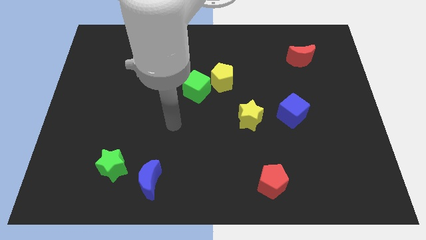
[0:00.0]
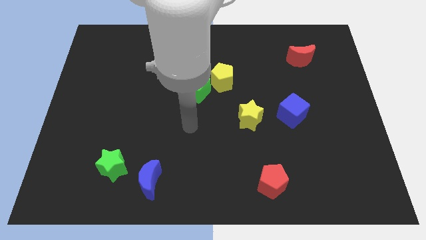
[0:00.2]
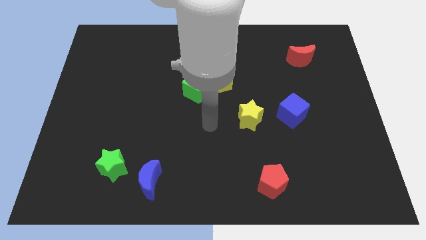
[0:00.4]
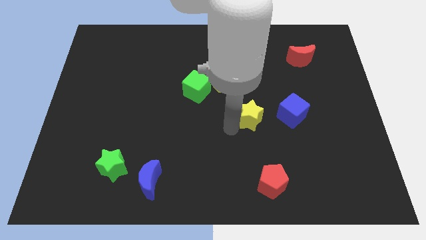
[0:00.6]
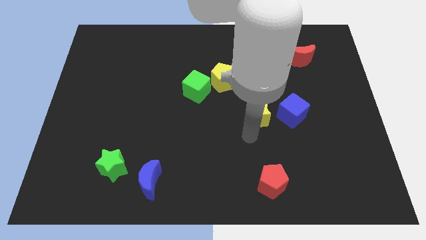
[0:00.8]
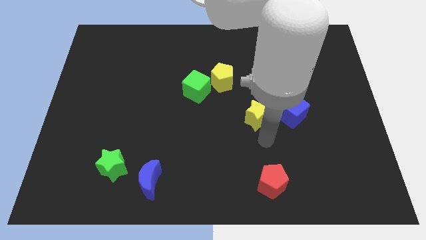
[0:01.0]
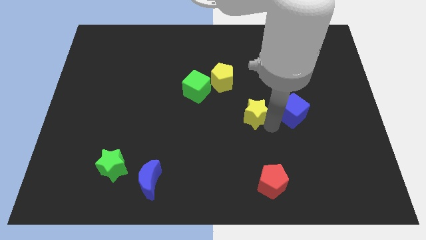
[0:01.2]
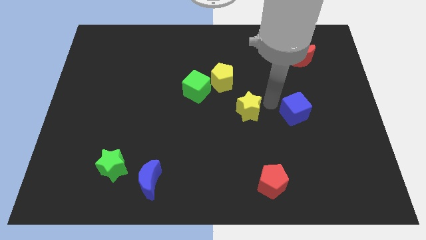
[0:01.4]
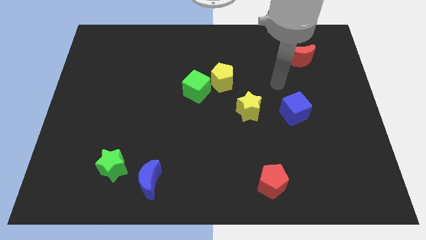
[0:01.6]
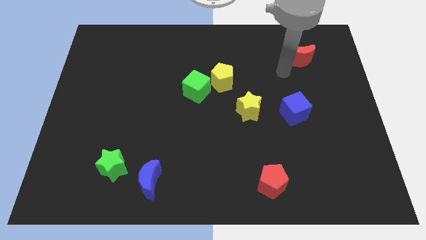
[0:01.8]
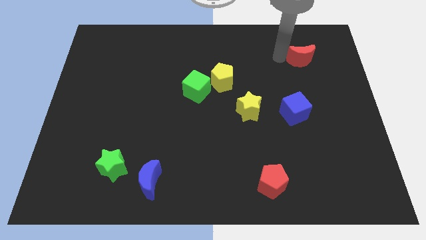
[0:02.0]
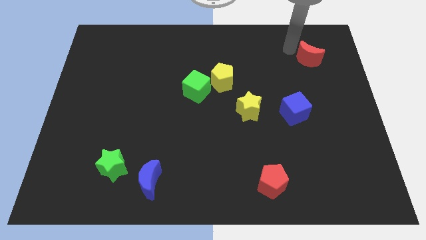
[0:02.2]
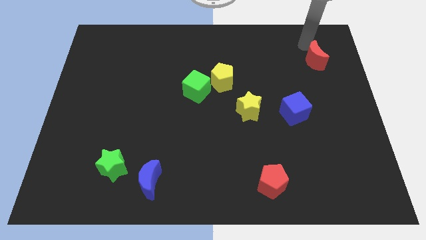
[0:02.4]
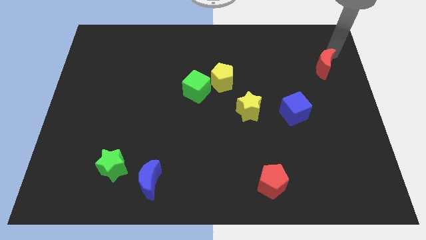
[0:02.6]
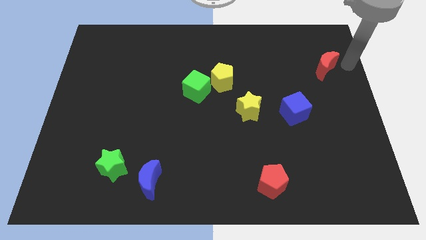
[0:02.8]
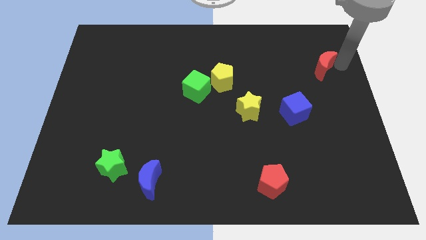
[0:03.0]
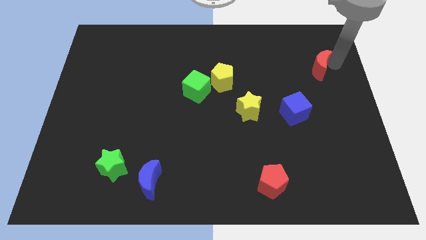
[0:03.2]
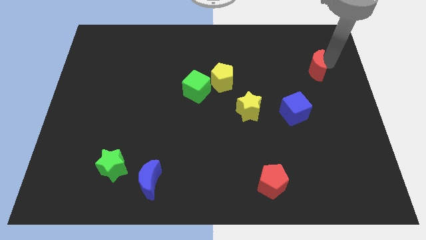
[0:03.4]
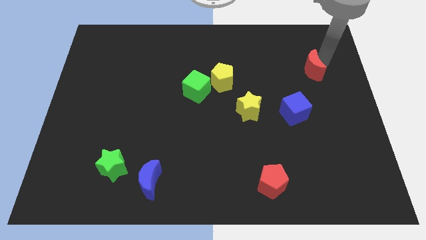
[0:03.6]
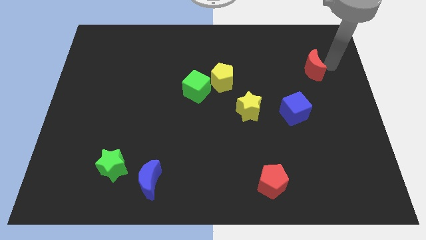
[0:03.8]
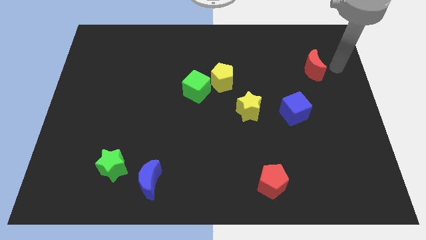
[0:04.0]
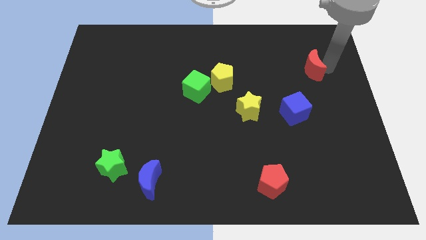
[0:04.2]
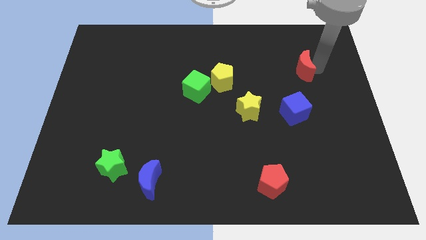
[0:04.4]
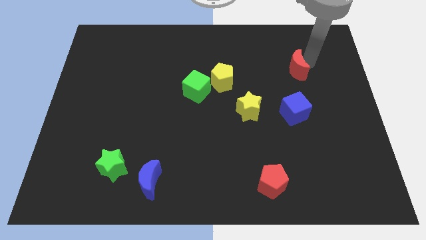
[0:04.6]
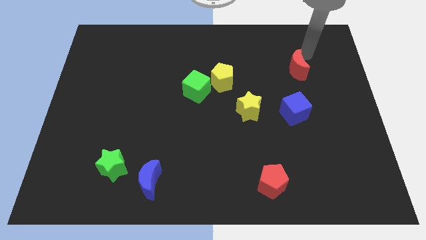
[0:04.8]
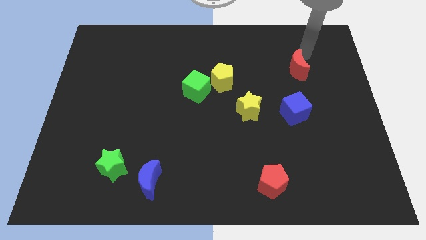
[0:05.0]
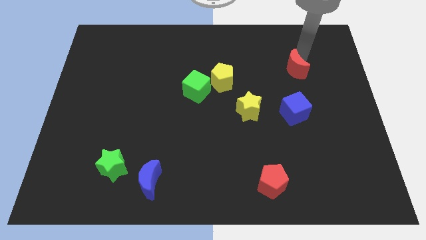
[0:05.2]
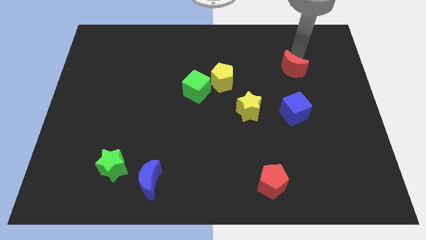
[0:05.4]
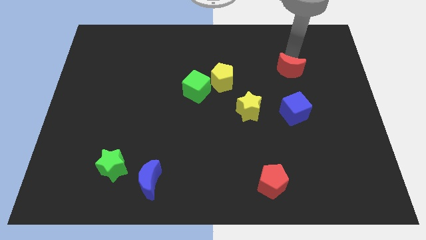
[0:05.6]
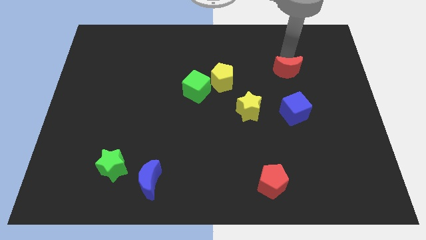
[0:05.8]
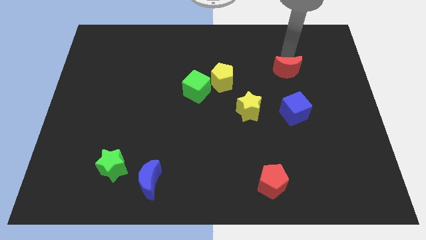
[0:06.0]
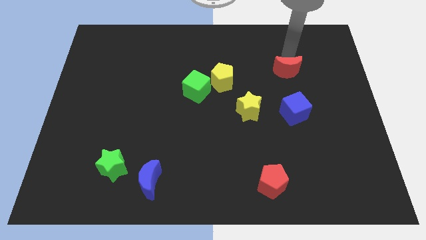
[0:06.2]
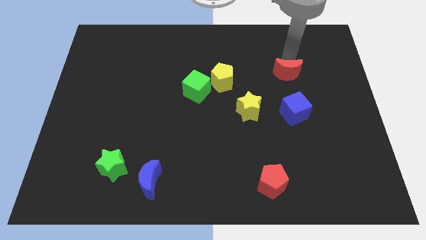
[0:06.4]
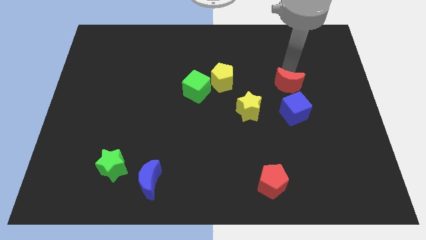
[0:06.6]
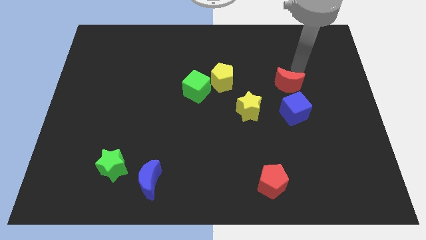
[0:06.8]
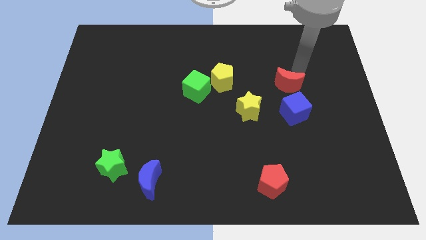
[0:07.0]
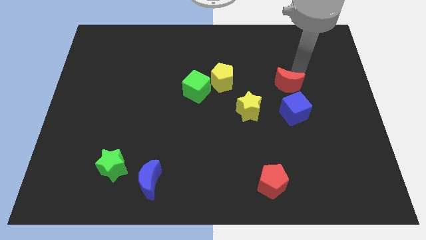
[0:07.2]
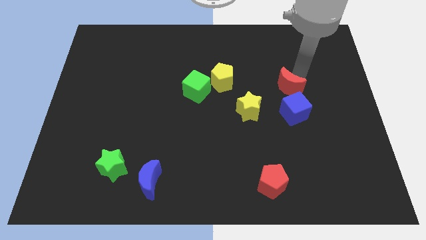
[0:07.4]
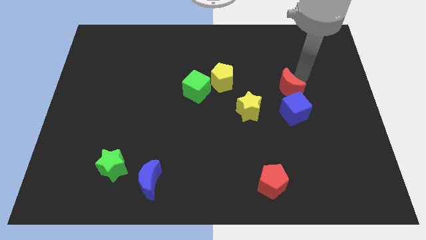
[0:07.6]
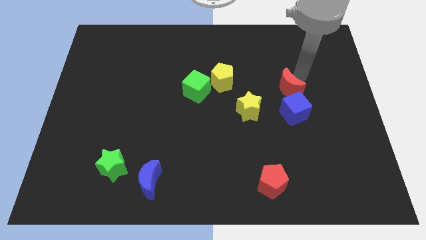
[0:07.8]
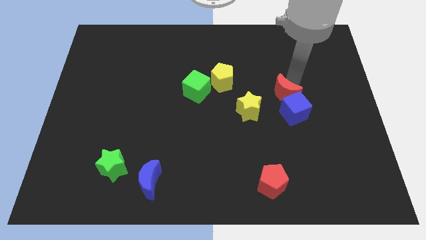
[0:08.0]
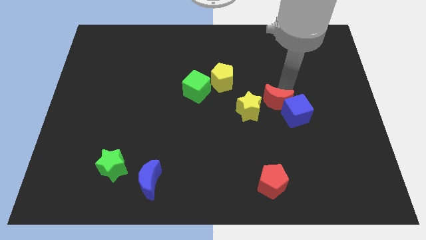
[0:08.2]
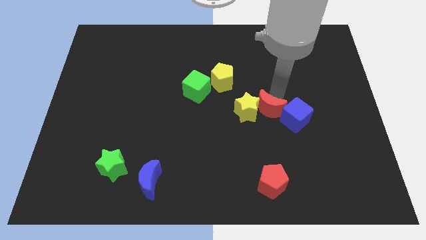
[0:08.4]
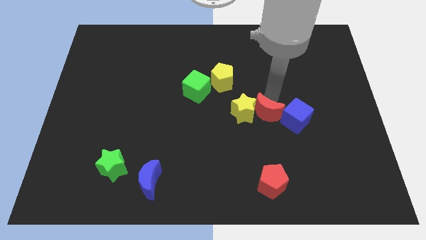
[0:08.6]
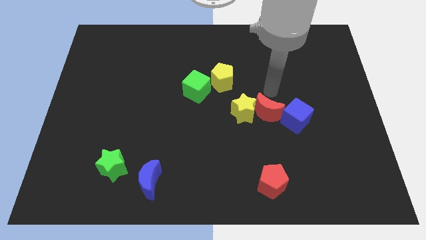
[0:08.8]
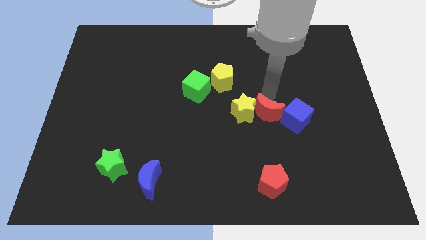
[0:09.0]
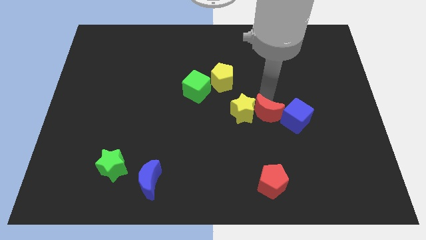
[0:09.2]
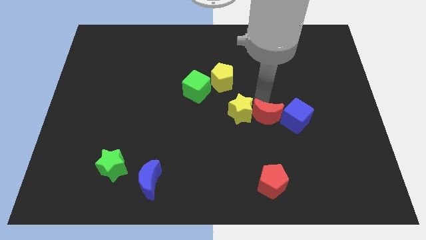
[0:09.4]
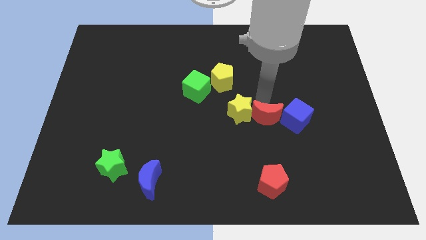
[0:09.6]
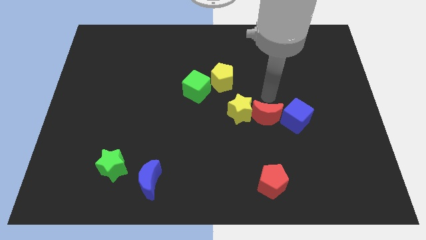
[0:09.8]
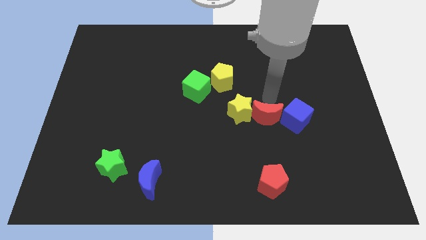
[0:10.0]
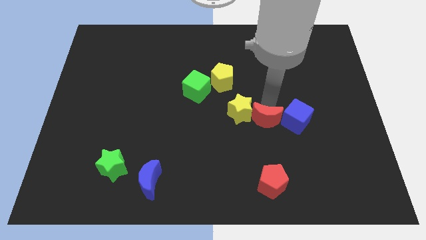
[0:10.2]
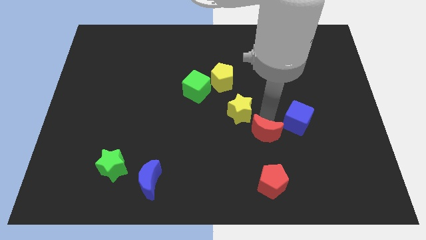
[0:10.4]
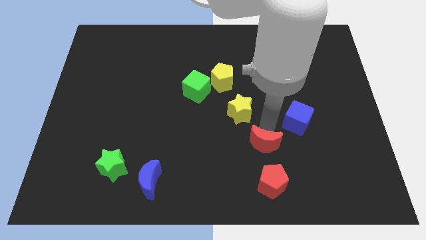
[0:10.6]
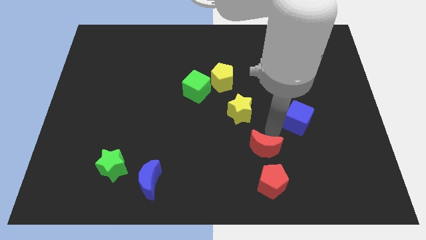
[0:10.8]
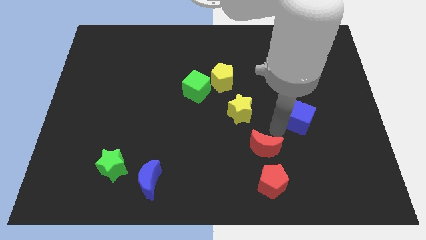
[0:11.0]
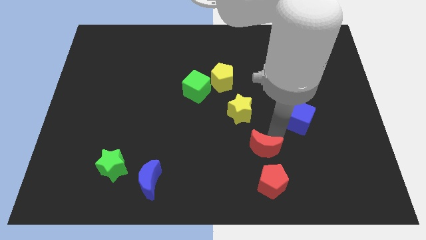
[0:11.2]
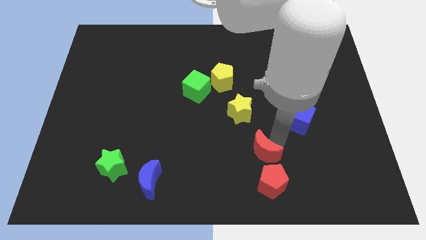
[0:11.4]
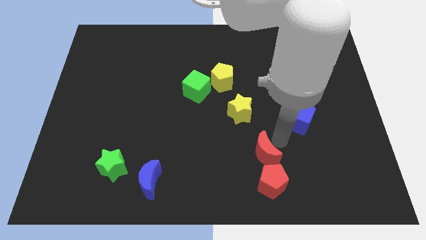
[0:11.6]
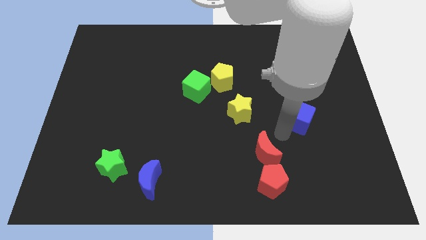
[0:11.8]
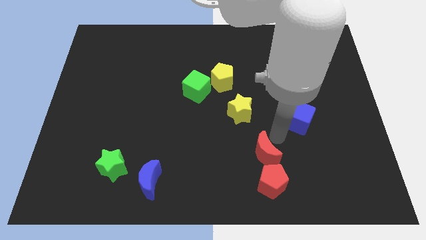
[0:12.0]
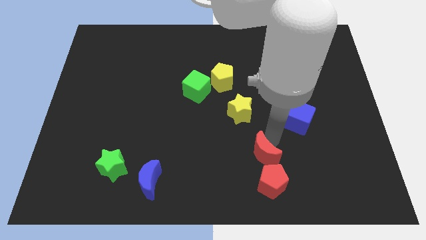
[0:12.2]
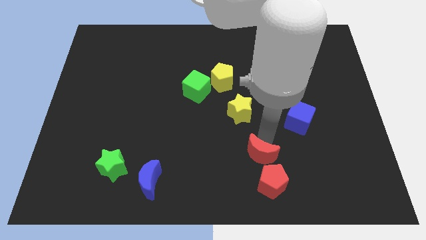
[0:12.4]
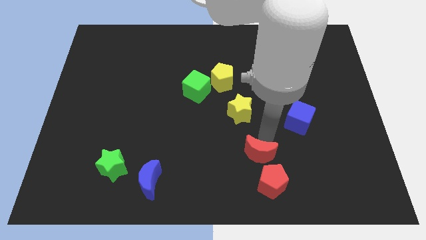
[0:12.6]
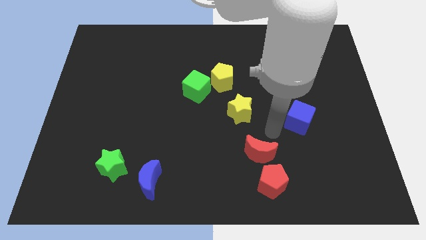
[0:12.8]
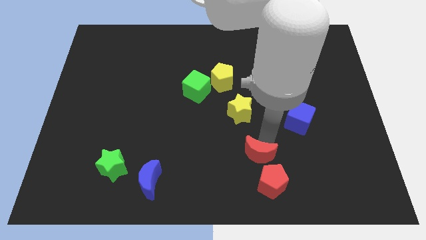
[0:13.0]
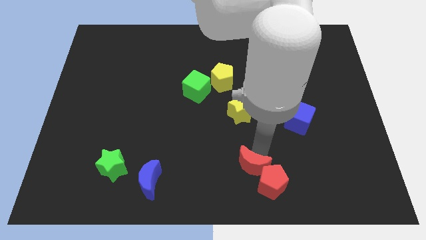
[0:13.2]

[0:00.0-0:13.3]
put the red moon to the bottom side

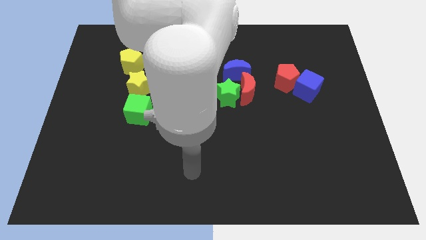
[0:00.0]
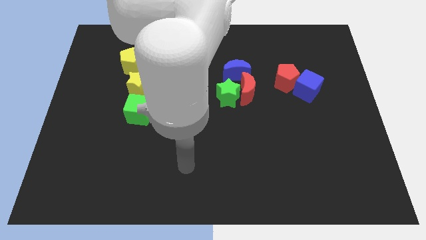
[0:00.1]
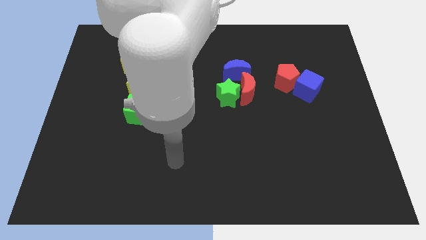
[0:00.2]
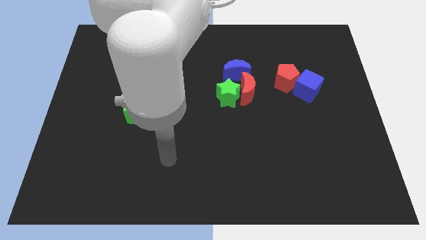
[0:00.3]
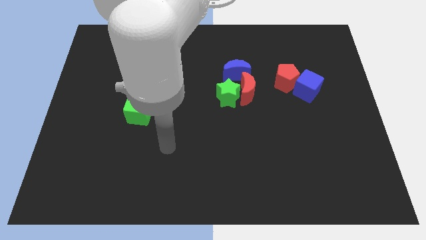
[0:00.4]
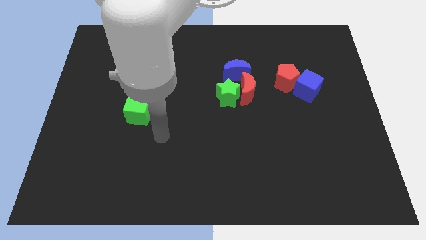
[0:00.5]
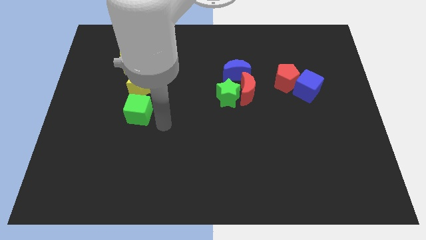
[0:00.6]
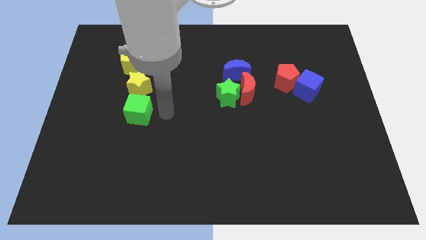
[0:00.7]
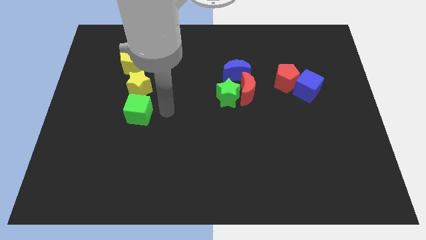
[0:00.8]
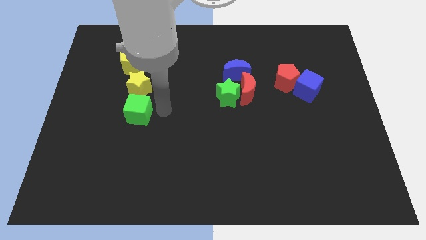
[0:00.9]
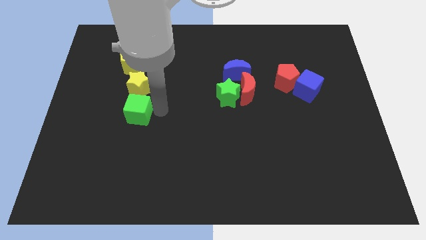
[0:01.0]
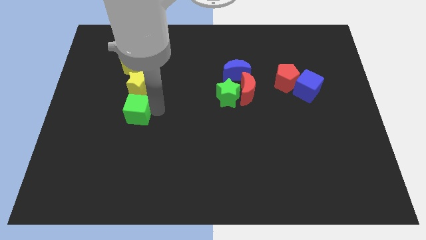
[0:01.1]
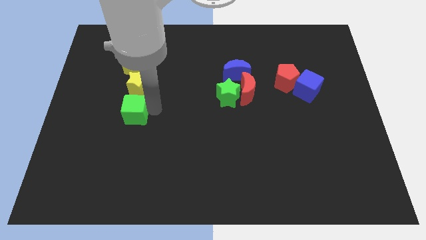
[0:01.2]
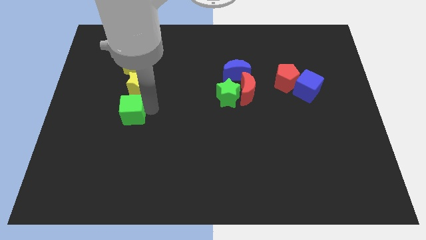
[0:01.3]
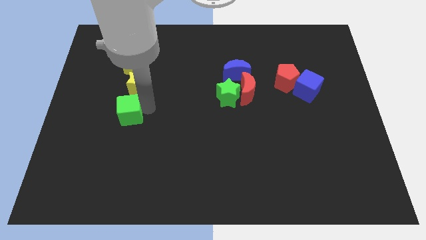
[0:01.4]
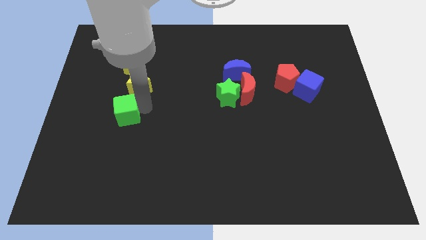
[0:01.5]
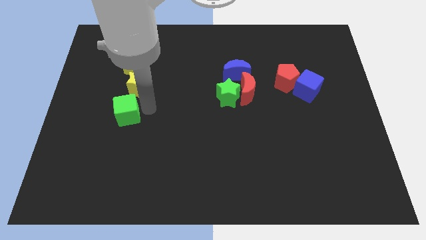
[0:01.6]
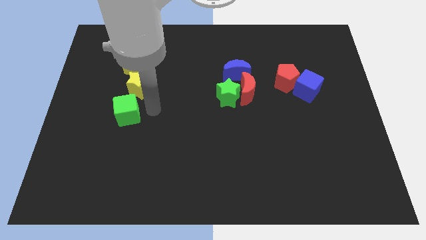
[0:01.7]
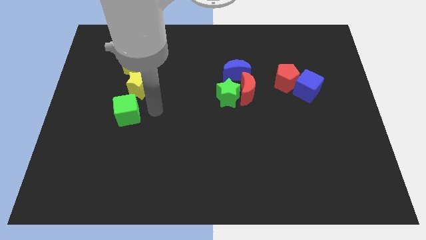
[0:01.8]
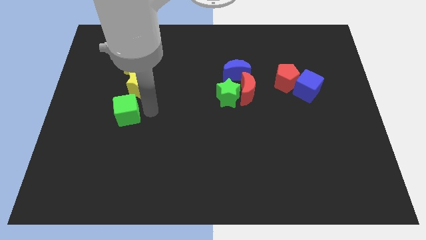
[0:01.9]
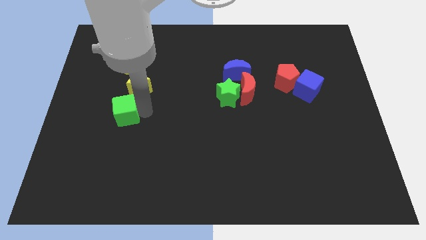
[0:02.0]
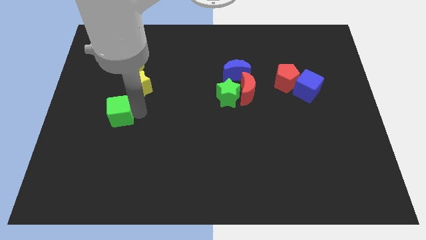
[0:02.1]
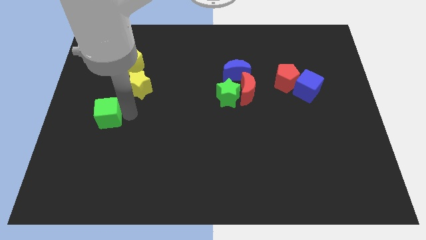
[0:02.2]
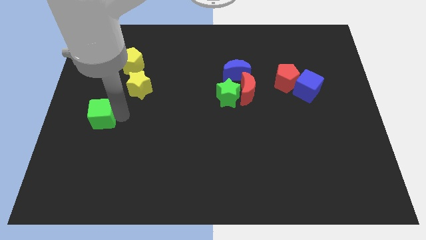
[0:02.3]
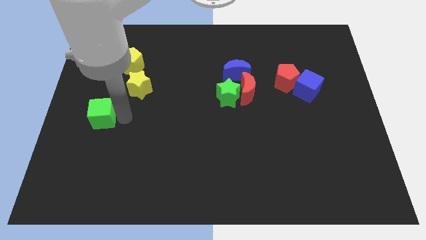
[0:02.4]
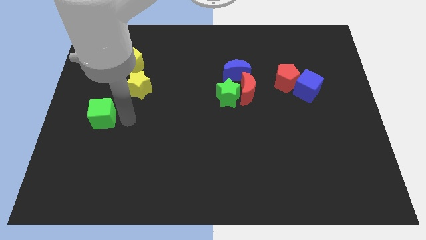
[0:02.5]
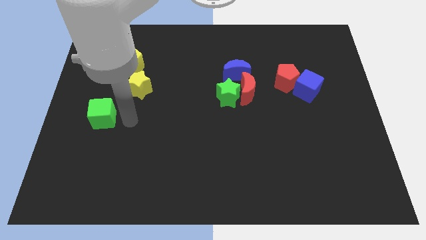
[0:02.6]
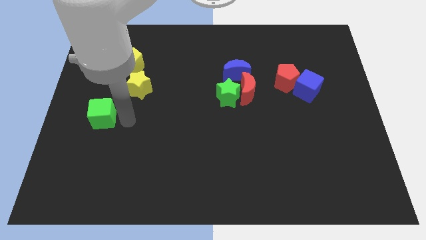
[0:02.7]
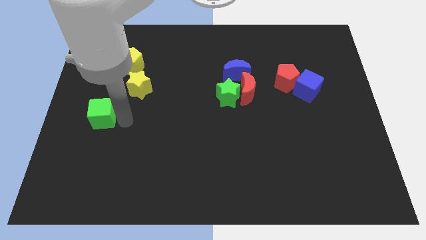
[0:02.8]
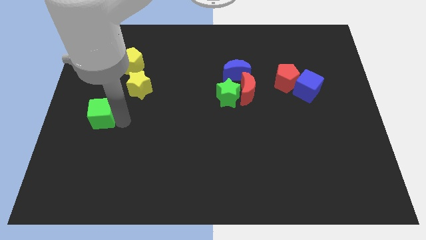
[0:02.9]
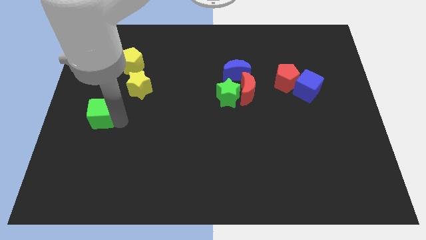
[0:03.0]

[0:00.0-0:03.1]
slide the green cube to the left side
